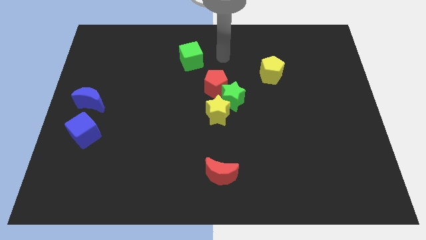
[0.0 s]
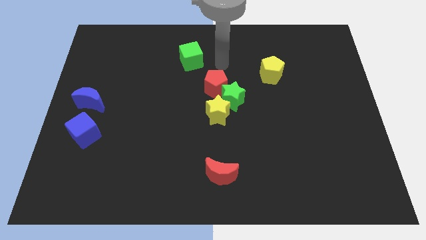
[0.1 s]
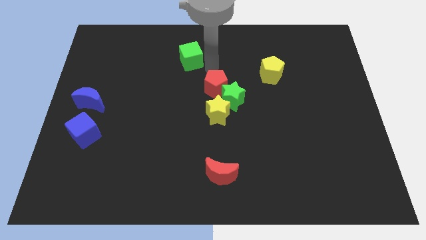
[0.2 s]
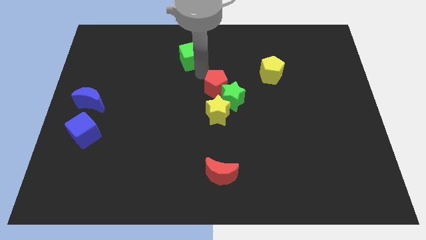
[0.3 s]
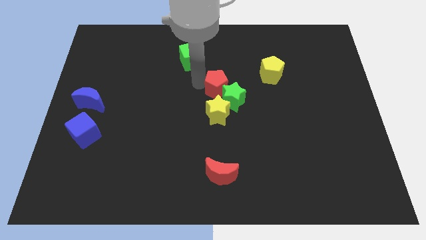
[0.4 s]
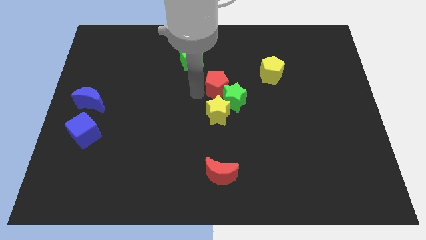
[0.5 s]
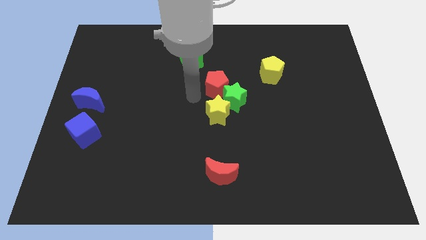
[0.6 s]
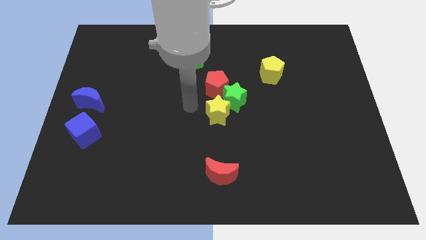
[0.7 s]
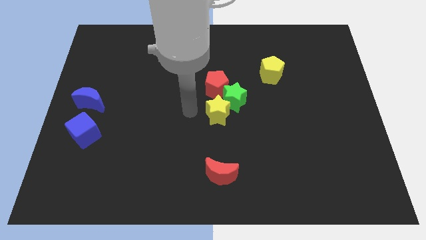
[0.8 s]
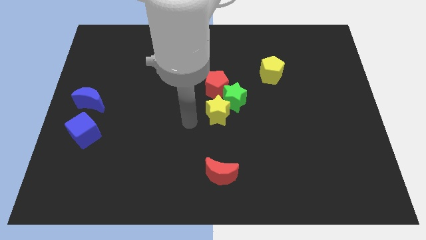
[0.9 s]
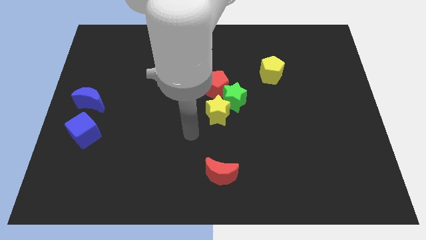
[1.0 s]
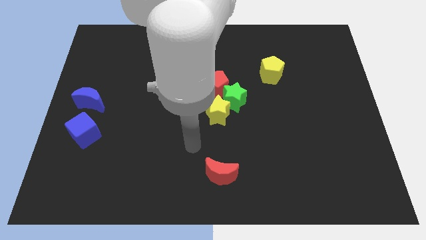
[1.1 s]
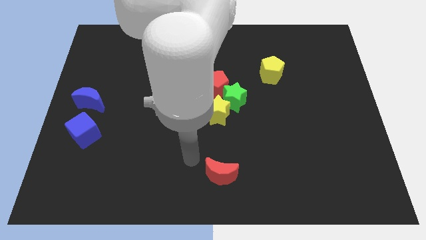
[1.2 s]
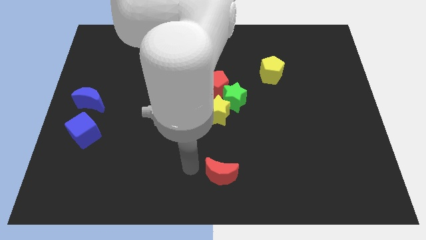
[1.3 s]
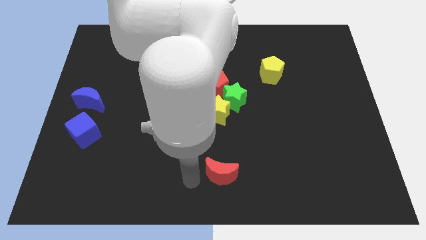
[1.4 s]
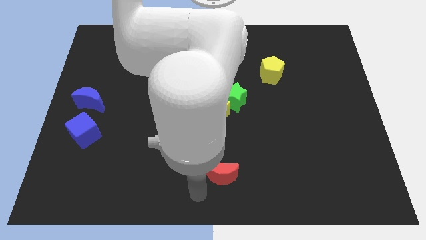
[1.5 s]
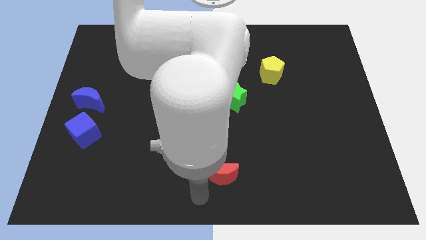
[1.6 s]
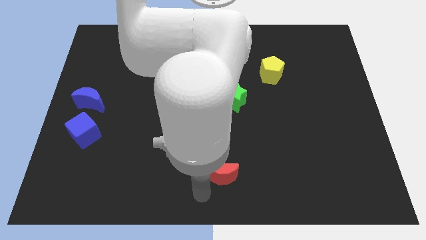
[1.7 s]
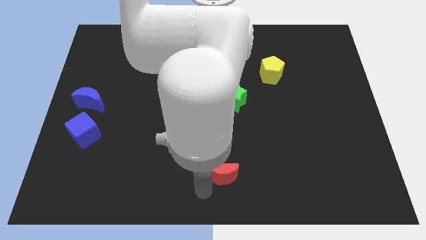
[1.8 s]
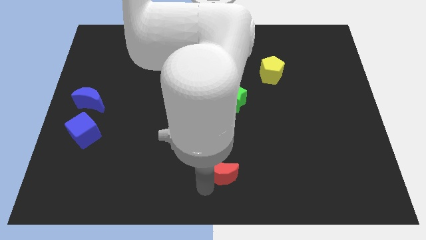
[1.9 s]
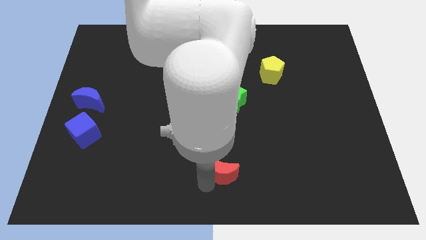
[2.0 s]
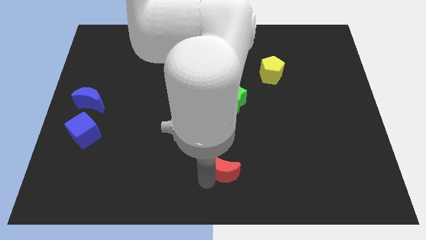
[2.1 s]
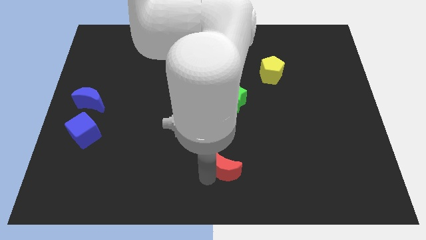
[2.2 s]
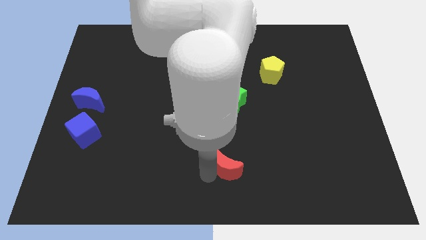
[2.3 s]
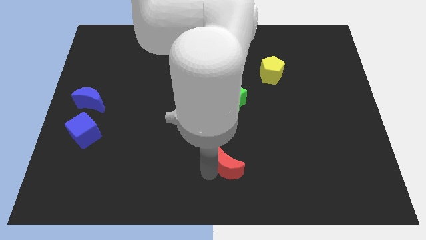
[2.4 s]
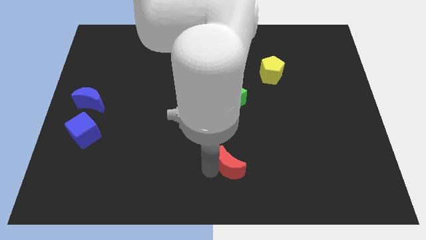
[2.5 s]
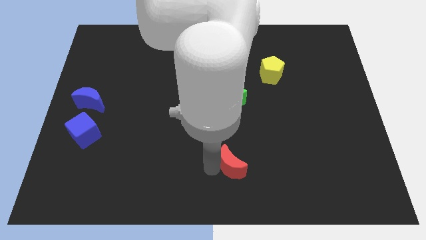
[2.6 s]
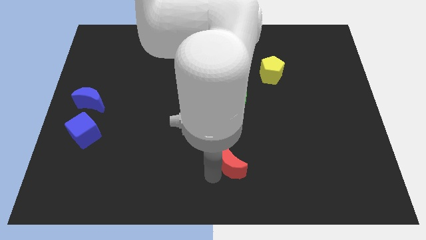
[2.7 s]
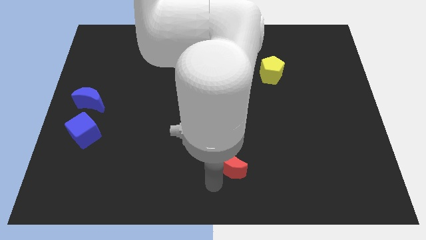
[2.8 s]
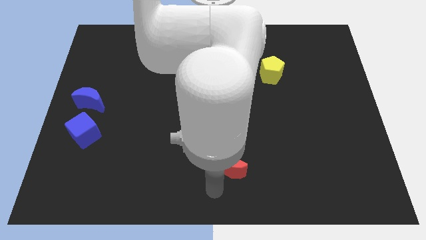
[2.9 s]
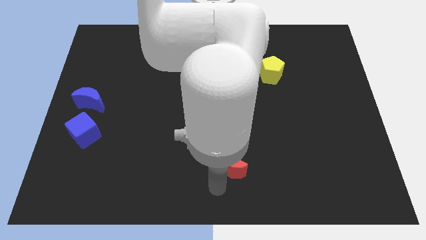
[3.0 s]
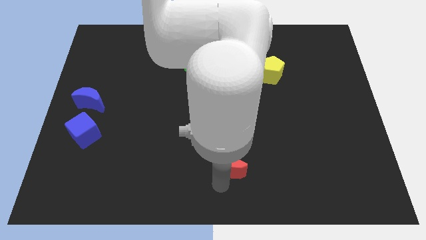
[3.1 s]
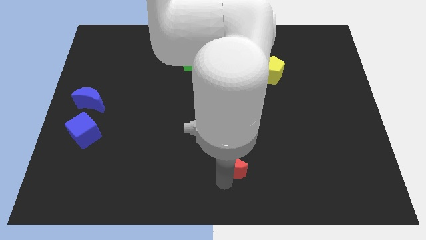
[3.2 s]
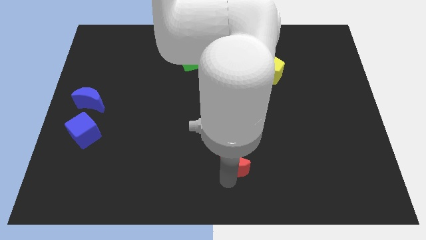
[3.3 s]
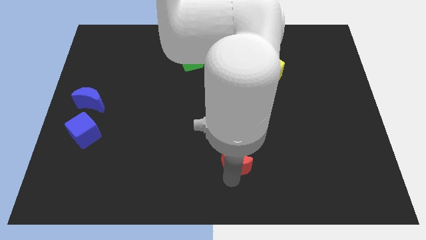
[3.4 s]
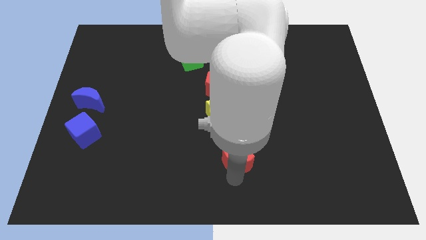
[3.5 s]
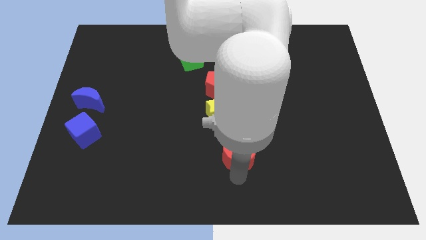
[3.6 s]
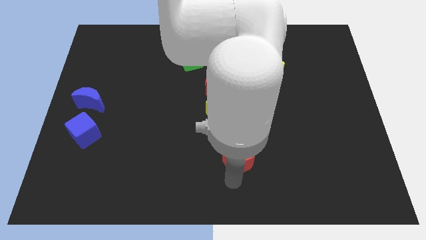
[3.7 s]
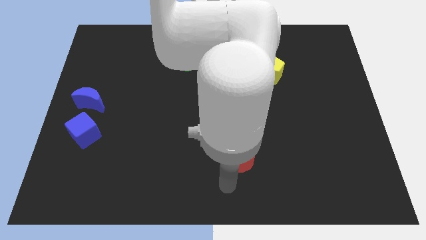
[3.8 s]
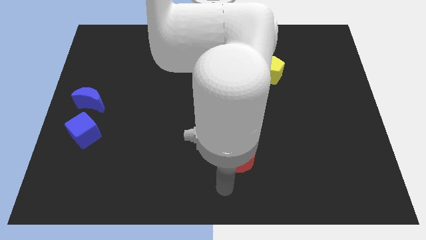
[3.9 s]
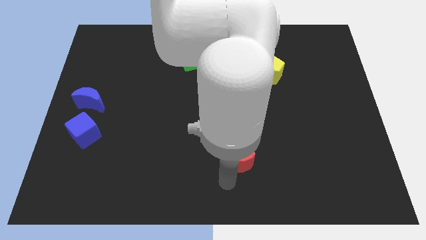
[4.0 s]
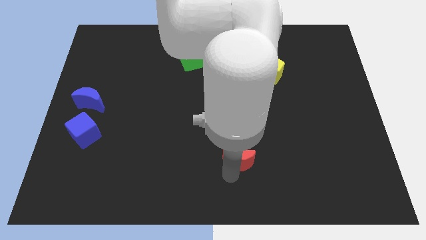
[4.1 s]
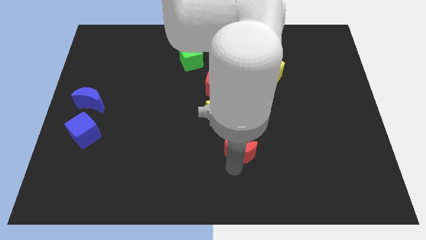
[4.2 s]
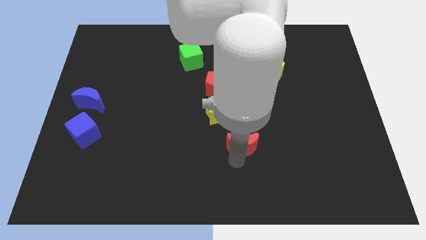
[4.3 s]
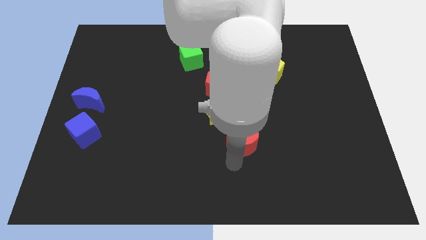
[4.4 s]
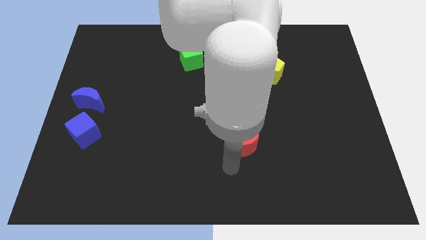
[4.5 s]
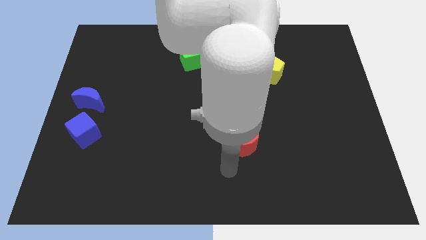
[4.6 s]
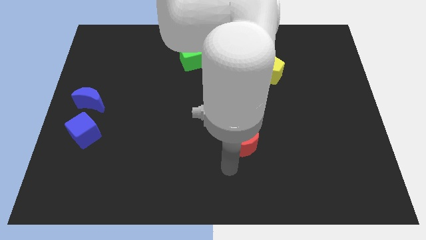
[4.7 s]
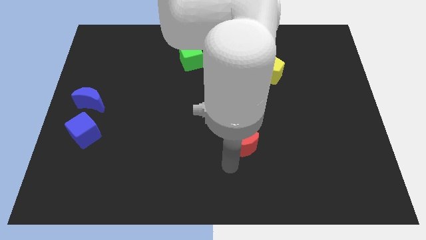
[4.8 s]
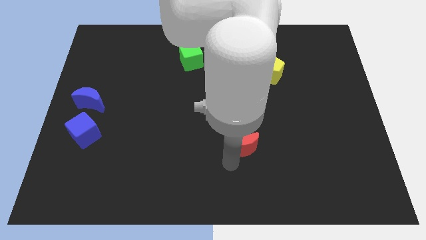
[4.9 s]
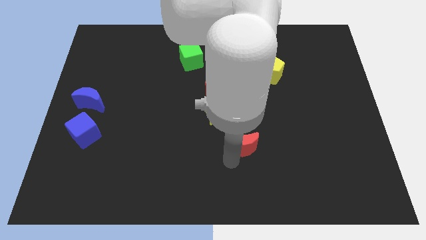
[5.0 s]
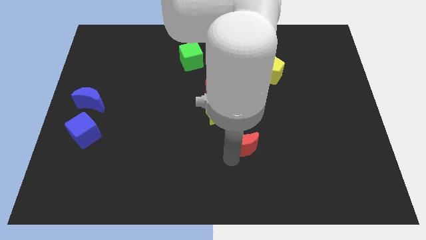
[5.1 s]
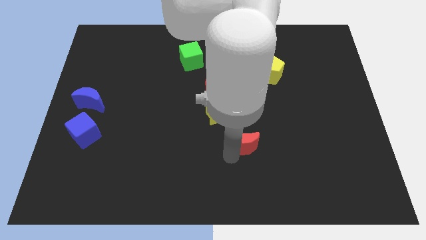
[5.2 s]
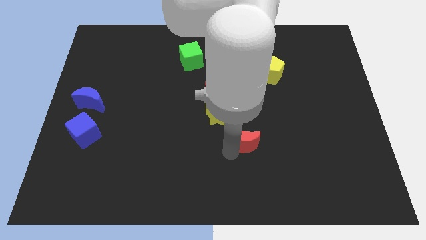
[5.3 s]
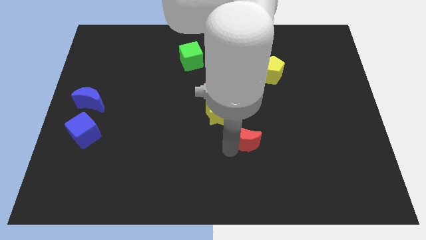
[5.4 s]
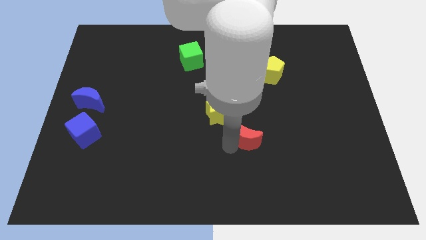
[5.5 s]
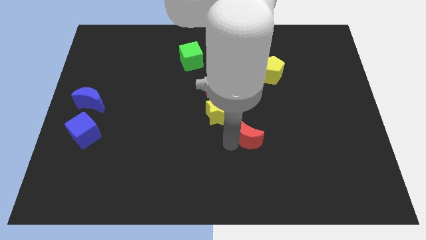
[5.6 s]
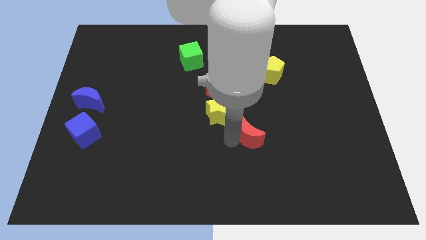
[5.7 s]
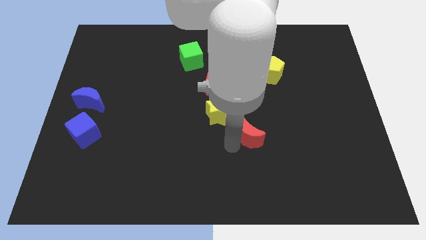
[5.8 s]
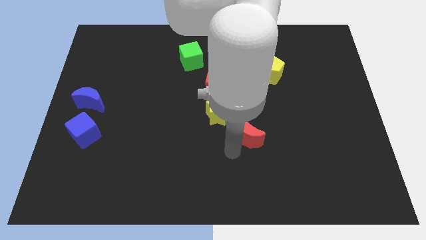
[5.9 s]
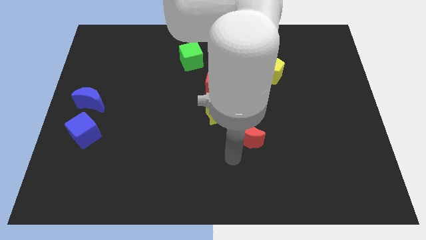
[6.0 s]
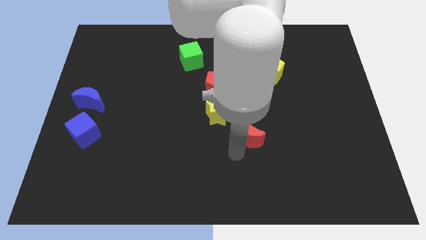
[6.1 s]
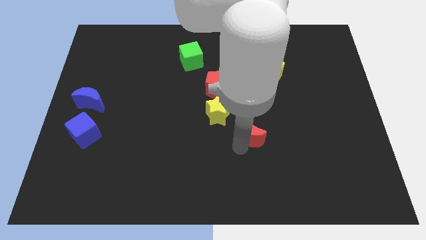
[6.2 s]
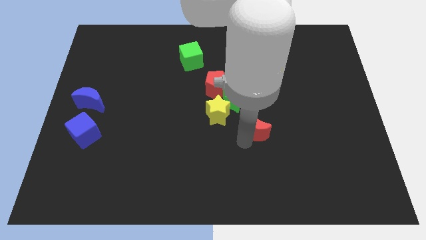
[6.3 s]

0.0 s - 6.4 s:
put the red moon to the right of the yellow star

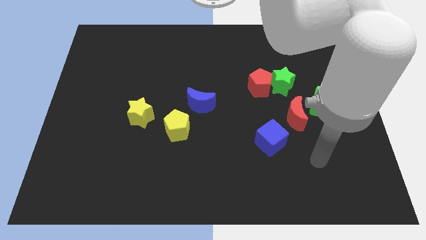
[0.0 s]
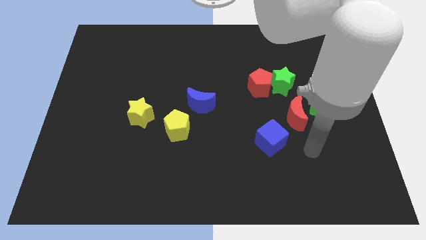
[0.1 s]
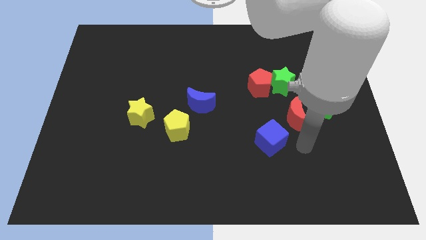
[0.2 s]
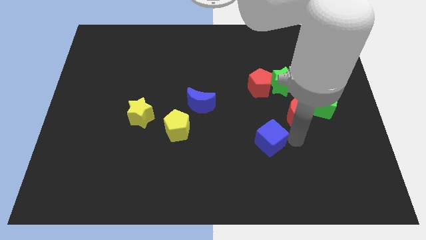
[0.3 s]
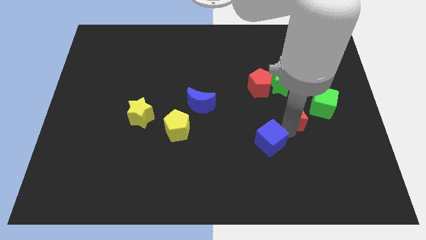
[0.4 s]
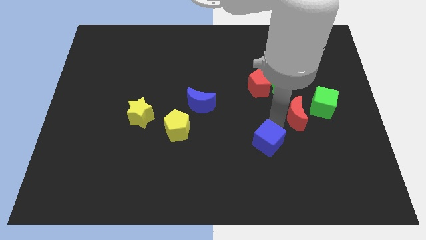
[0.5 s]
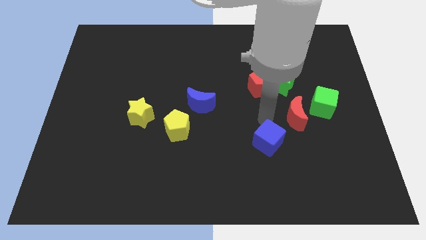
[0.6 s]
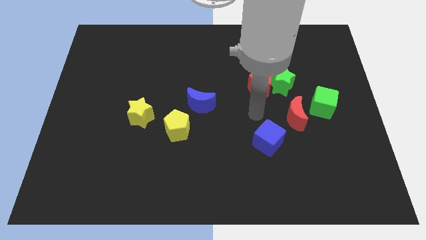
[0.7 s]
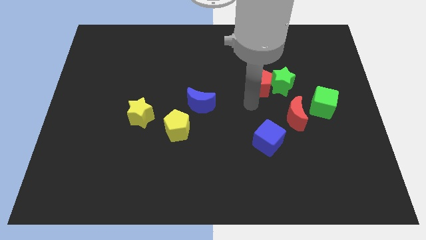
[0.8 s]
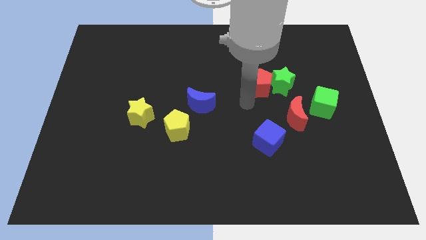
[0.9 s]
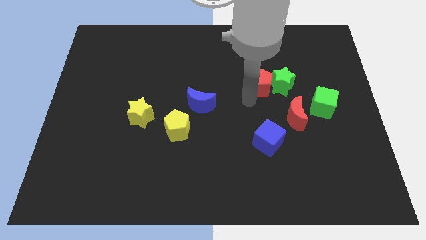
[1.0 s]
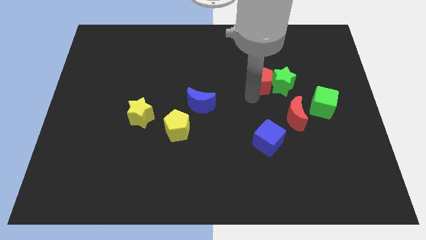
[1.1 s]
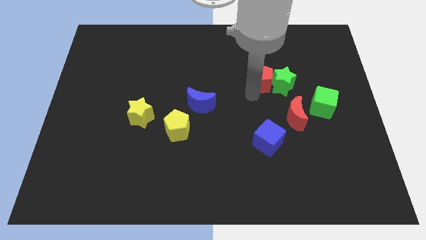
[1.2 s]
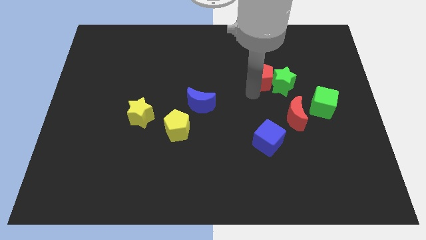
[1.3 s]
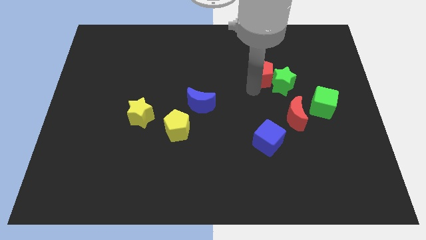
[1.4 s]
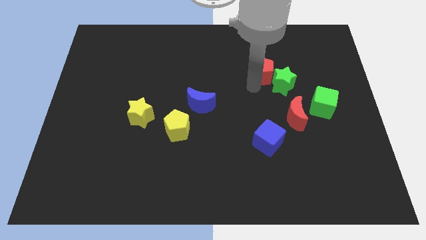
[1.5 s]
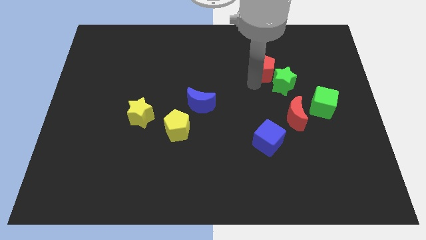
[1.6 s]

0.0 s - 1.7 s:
push the red pentagon above the green star
